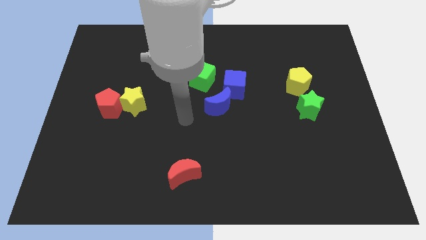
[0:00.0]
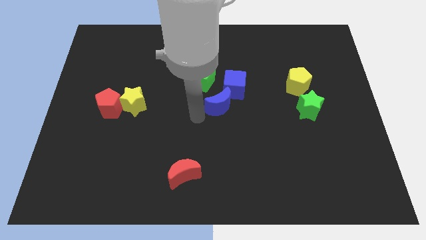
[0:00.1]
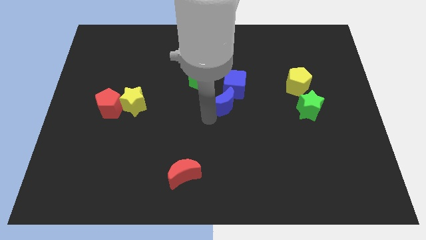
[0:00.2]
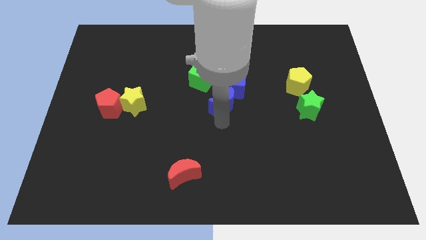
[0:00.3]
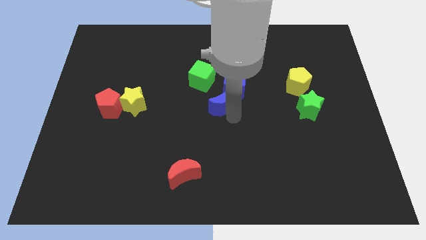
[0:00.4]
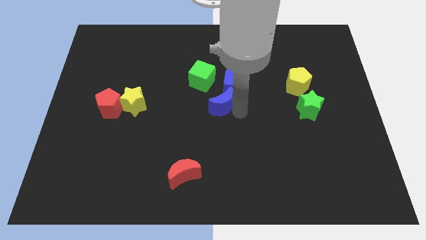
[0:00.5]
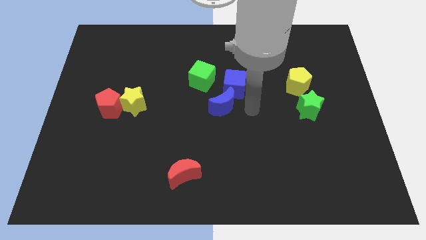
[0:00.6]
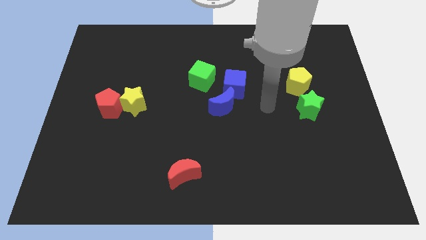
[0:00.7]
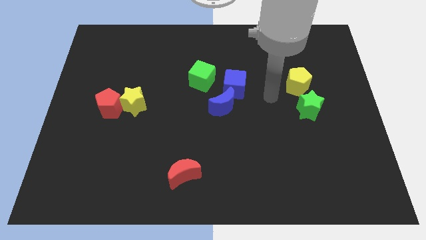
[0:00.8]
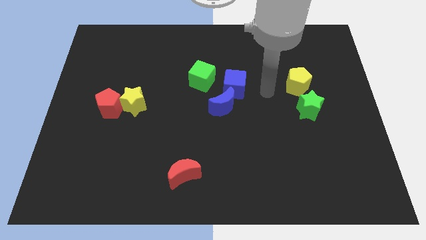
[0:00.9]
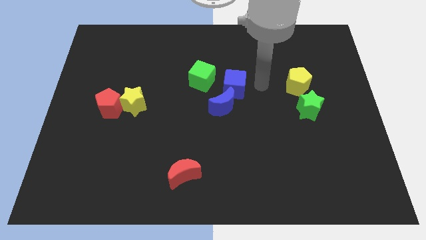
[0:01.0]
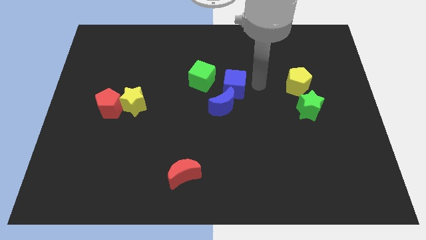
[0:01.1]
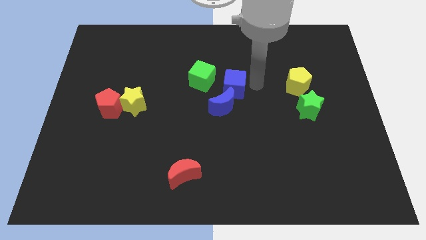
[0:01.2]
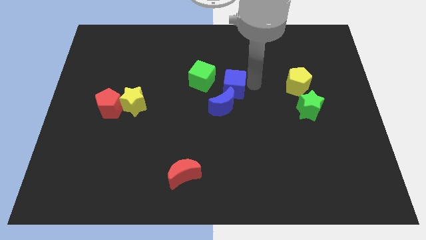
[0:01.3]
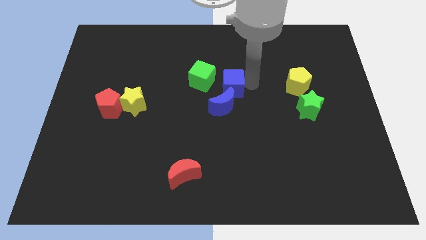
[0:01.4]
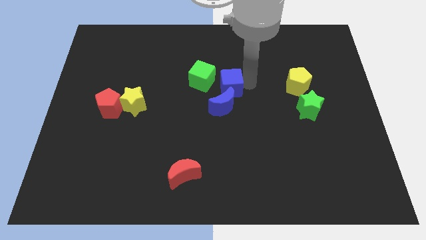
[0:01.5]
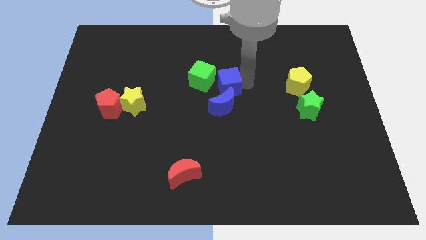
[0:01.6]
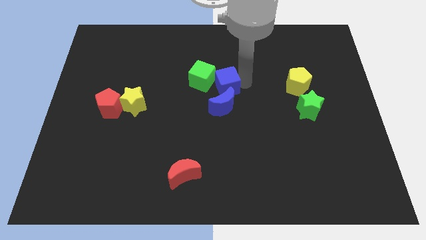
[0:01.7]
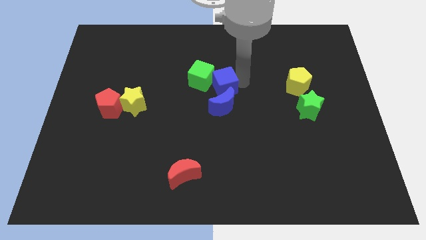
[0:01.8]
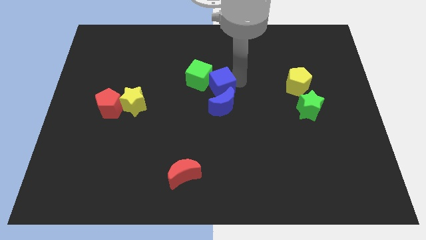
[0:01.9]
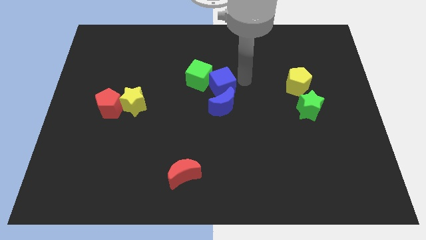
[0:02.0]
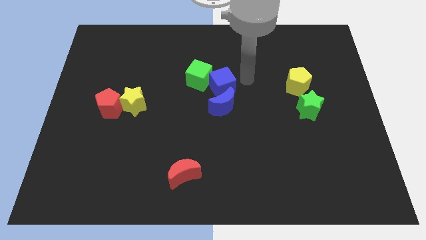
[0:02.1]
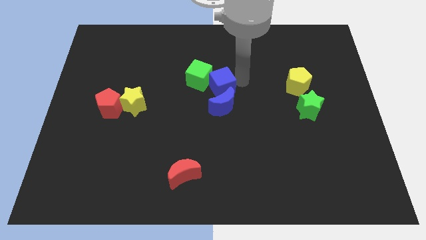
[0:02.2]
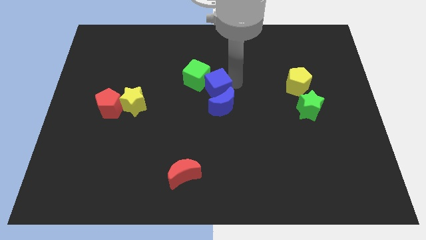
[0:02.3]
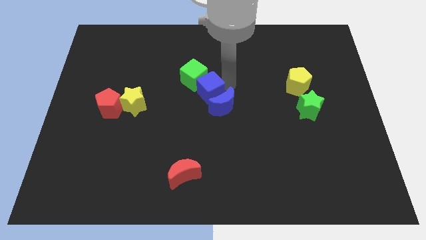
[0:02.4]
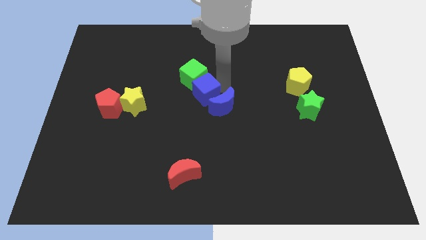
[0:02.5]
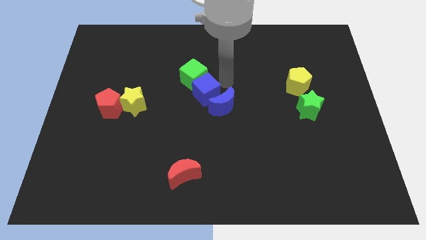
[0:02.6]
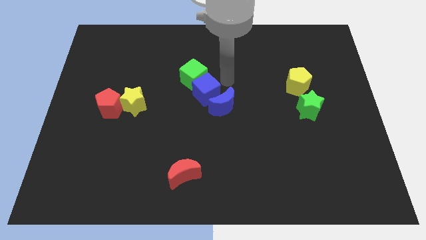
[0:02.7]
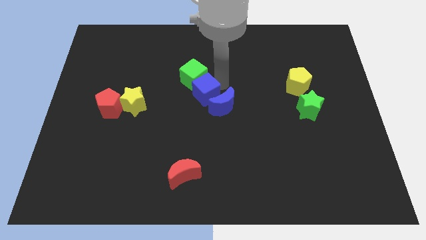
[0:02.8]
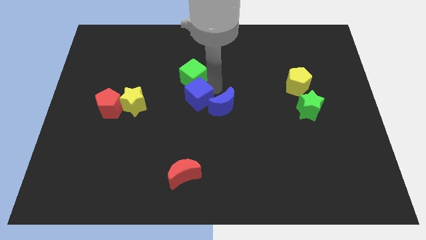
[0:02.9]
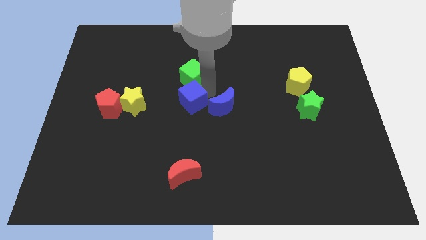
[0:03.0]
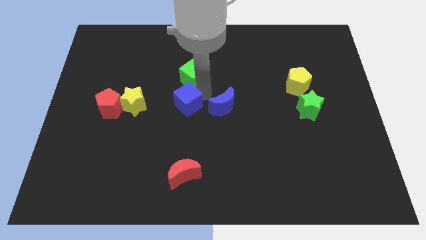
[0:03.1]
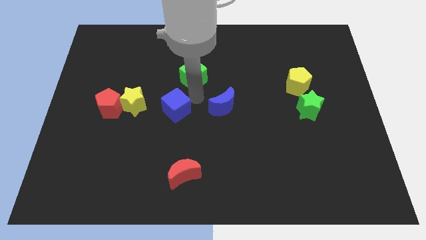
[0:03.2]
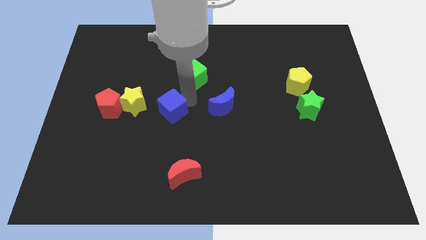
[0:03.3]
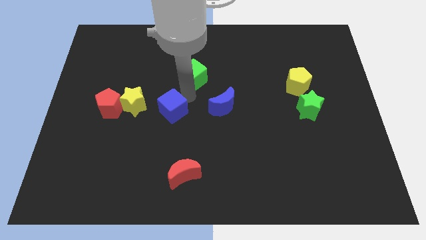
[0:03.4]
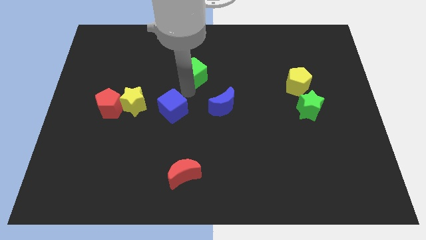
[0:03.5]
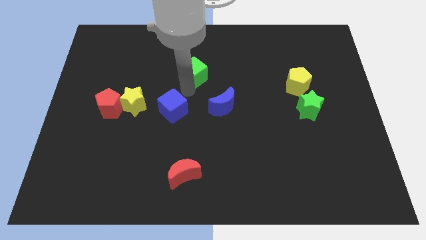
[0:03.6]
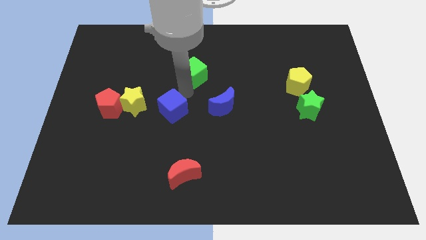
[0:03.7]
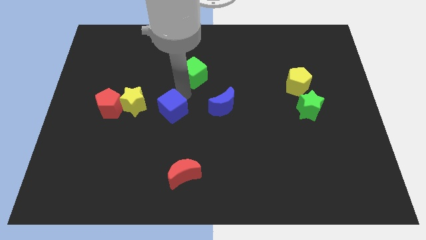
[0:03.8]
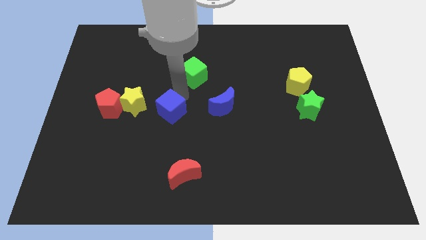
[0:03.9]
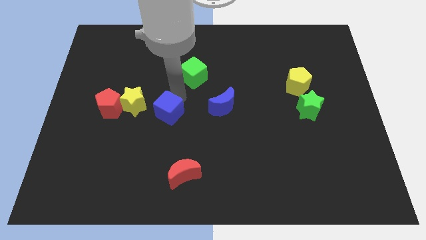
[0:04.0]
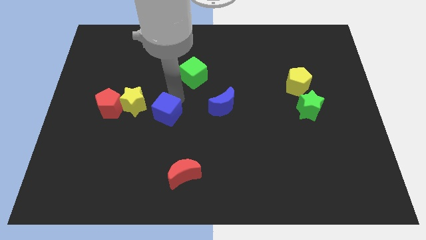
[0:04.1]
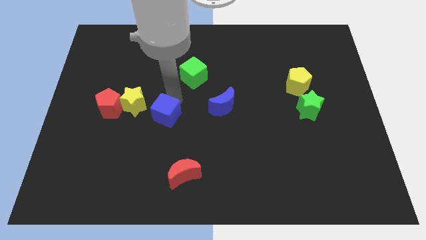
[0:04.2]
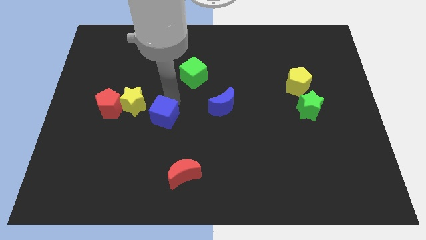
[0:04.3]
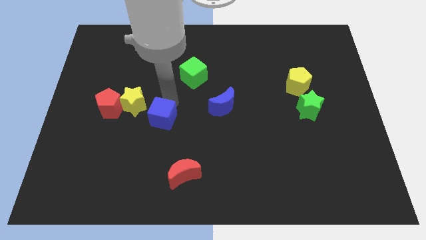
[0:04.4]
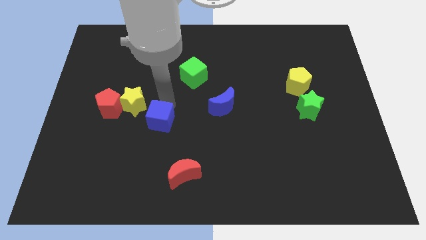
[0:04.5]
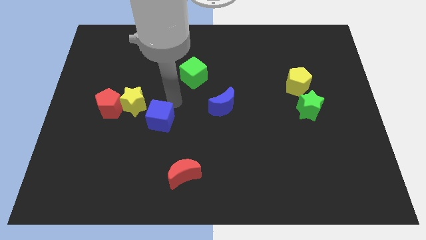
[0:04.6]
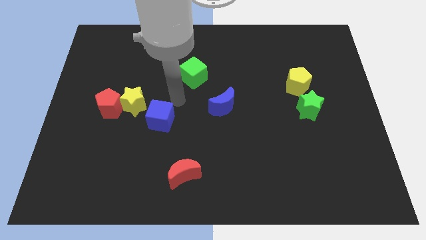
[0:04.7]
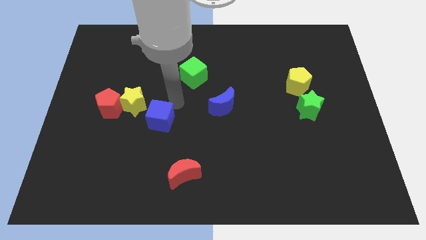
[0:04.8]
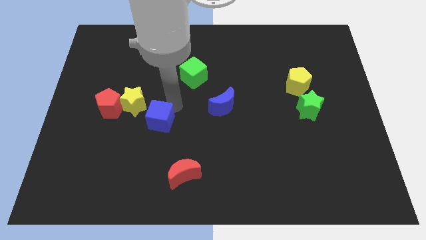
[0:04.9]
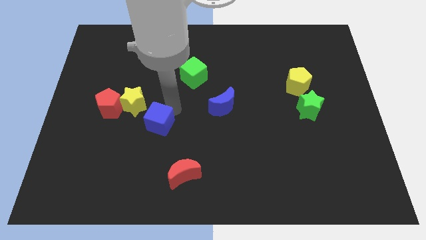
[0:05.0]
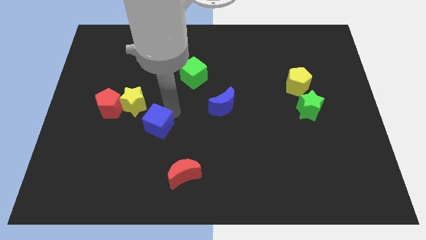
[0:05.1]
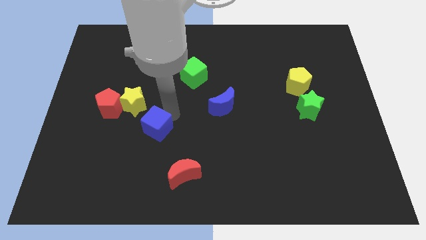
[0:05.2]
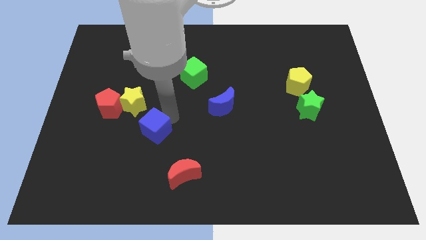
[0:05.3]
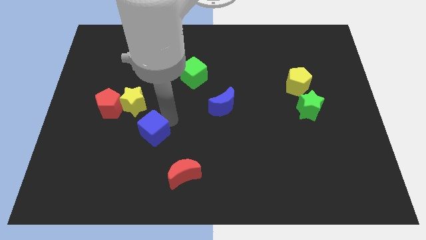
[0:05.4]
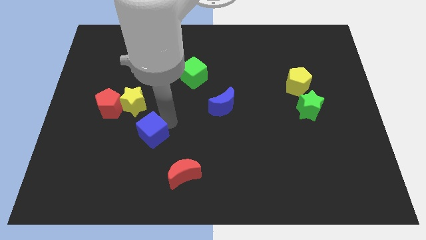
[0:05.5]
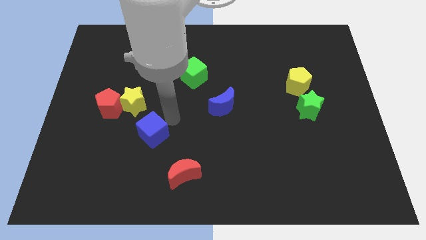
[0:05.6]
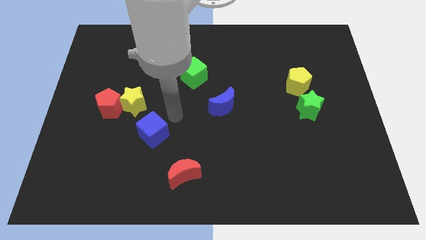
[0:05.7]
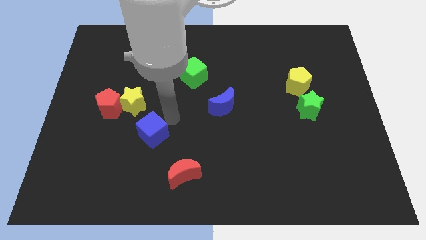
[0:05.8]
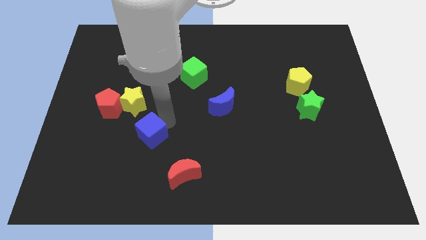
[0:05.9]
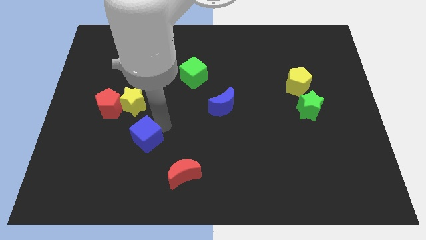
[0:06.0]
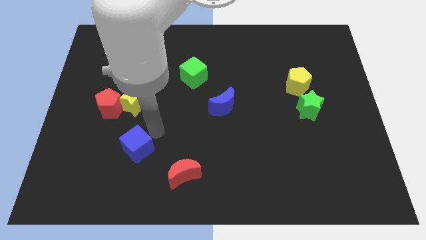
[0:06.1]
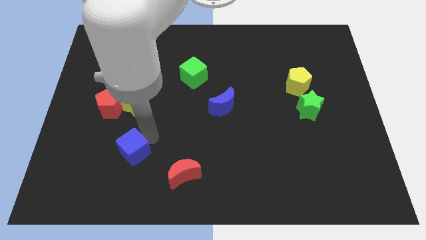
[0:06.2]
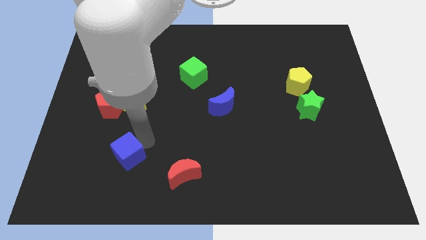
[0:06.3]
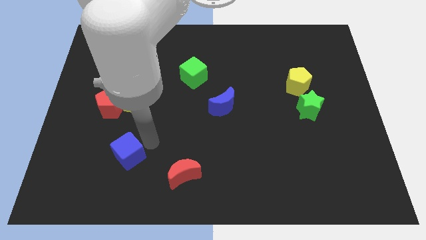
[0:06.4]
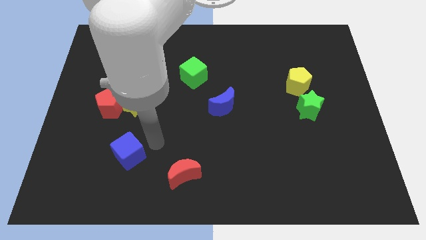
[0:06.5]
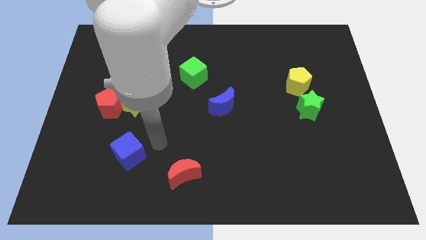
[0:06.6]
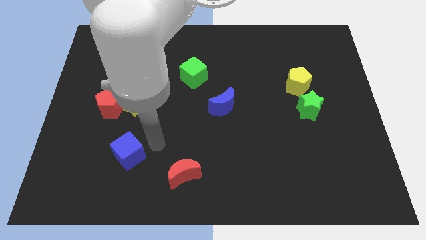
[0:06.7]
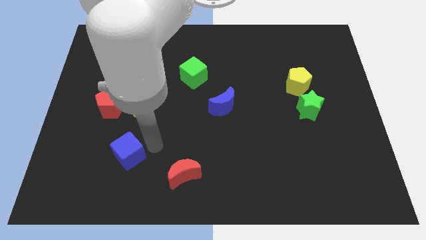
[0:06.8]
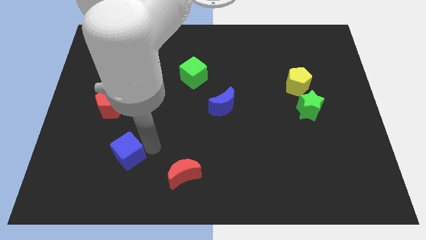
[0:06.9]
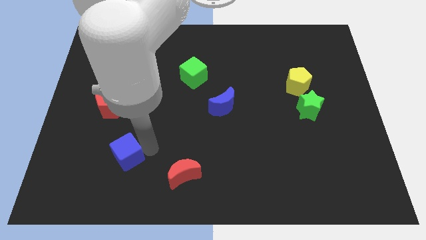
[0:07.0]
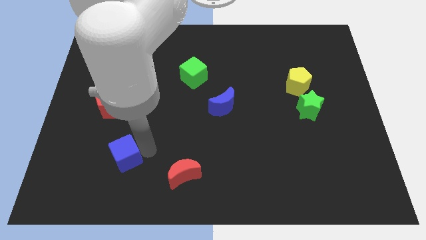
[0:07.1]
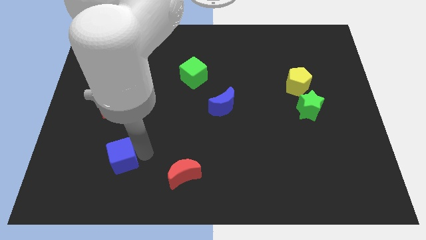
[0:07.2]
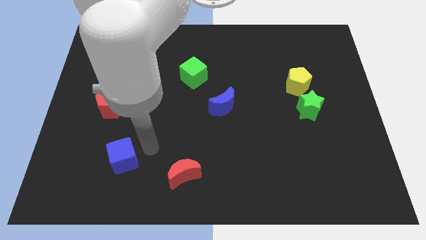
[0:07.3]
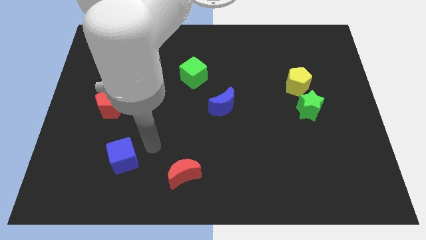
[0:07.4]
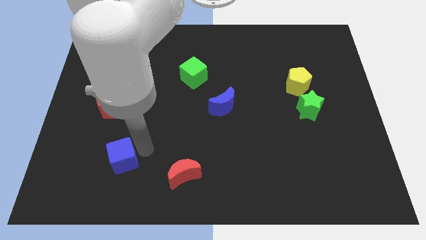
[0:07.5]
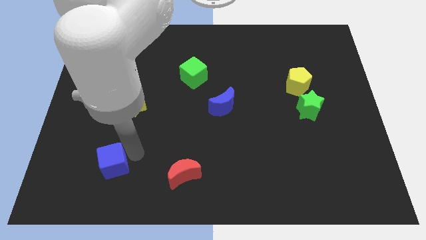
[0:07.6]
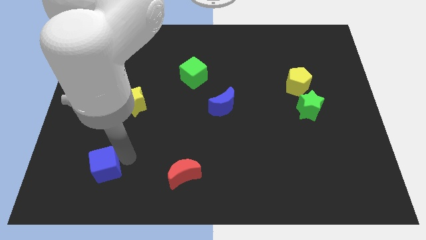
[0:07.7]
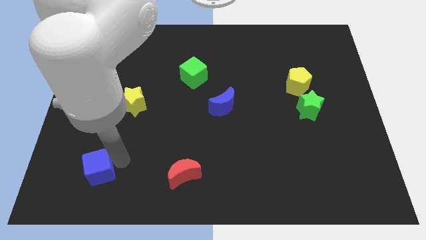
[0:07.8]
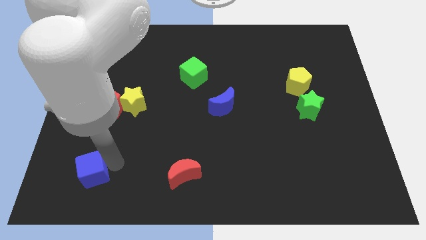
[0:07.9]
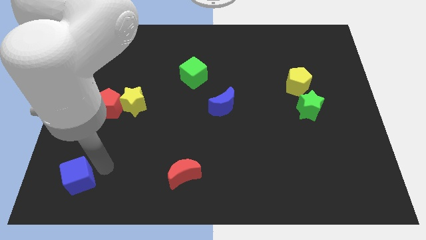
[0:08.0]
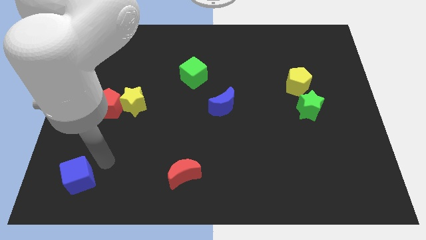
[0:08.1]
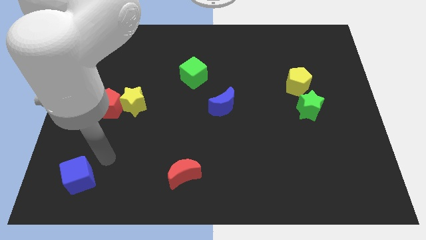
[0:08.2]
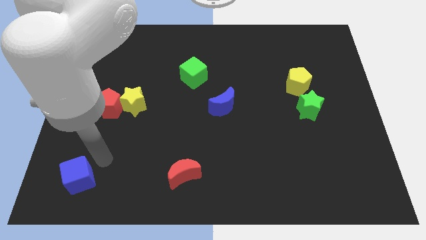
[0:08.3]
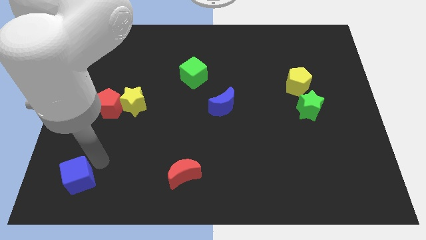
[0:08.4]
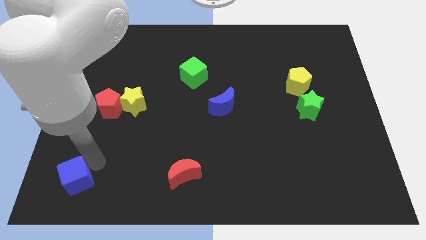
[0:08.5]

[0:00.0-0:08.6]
put the blue cube to the lower left corner
